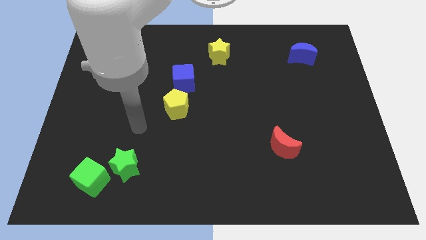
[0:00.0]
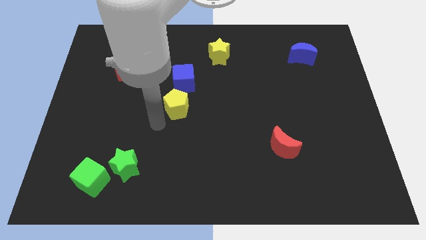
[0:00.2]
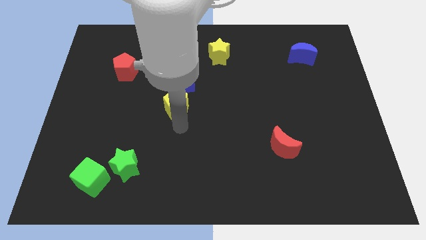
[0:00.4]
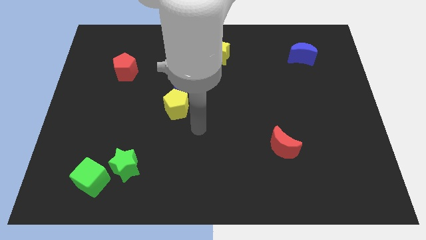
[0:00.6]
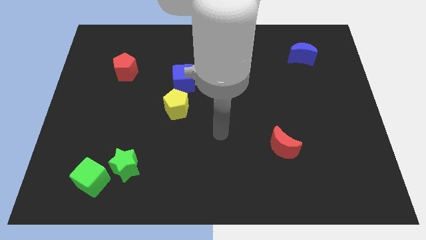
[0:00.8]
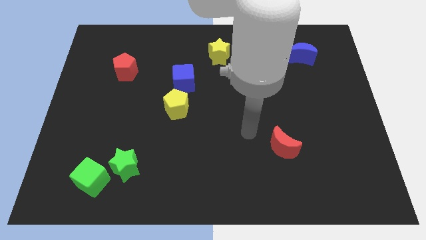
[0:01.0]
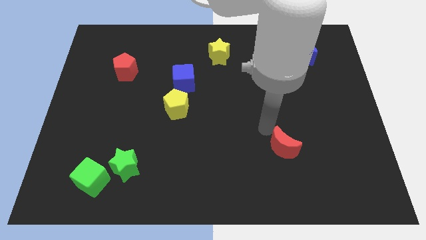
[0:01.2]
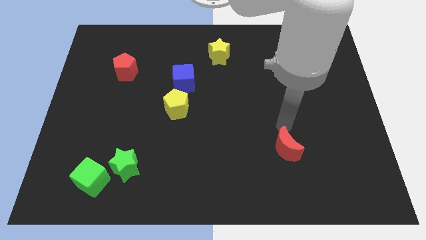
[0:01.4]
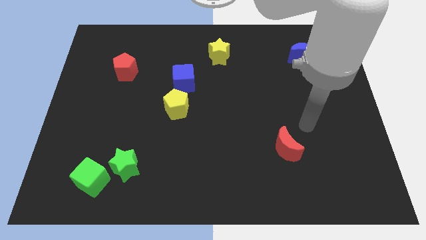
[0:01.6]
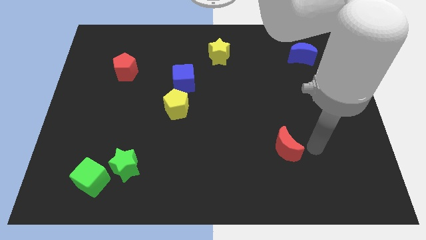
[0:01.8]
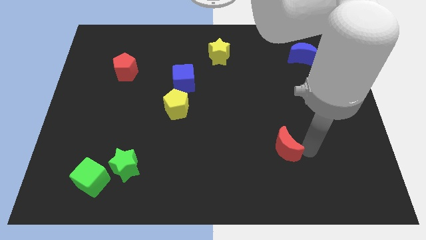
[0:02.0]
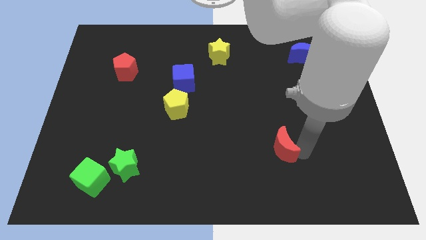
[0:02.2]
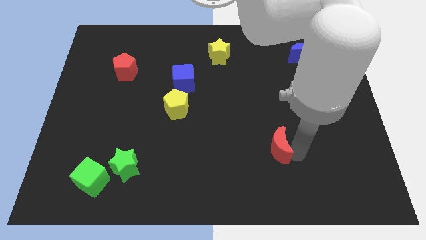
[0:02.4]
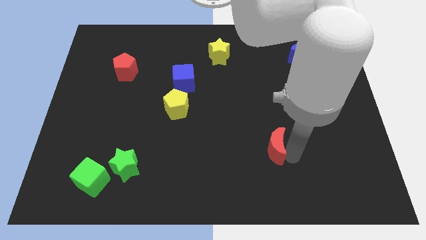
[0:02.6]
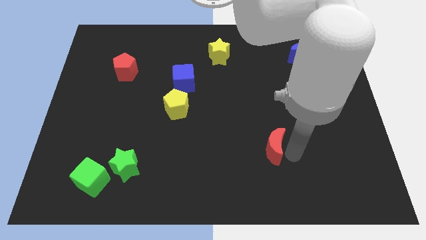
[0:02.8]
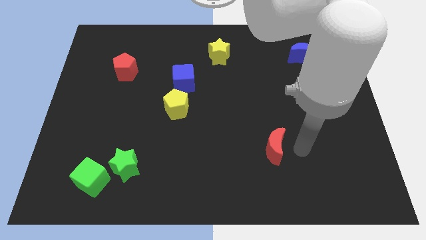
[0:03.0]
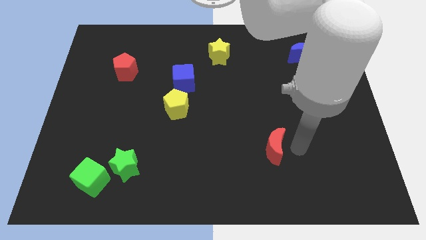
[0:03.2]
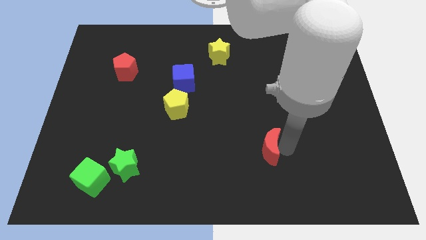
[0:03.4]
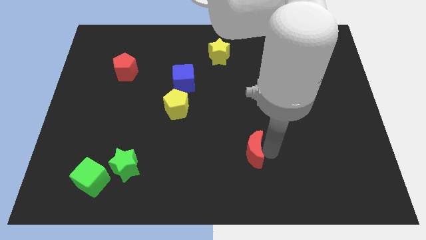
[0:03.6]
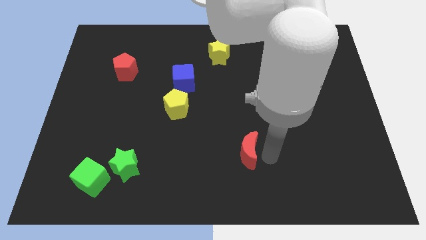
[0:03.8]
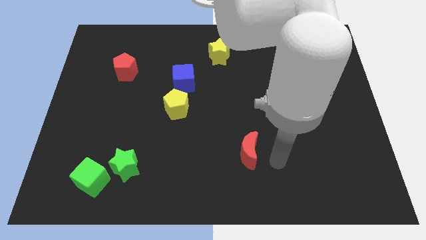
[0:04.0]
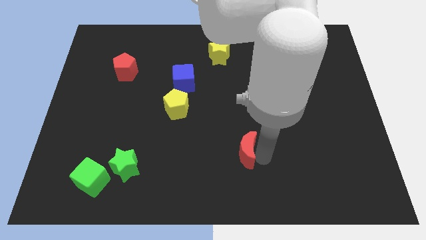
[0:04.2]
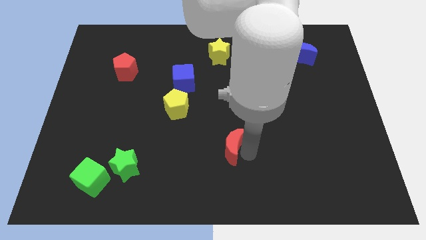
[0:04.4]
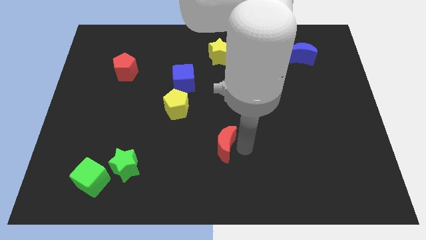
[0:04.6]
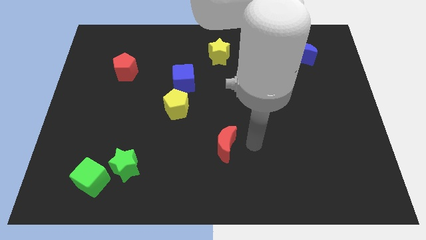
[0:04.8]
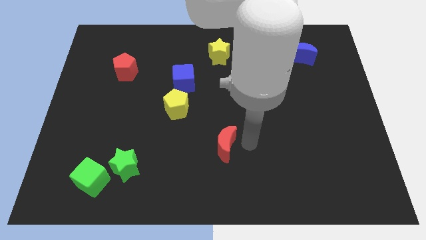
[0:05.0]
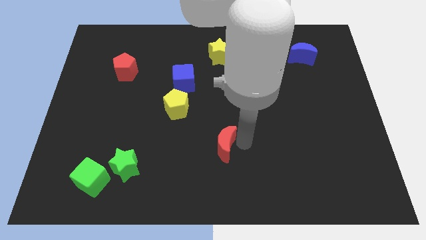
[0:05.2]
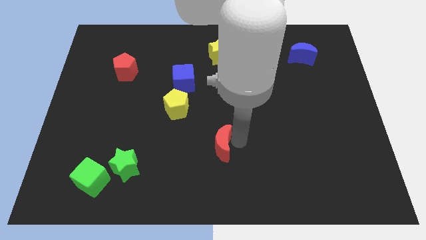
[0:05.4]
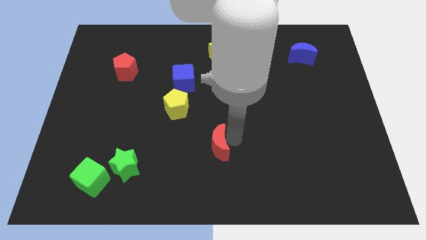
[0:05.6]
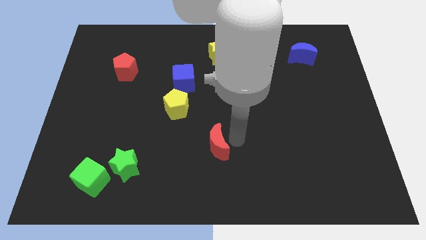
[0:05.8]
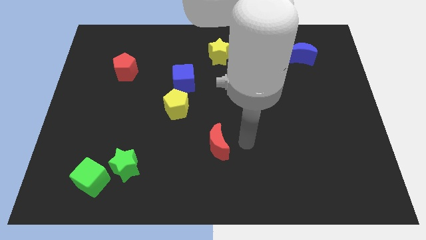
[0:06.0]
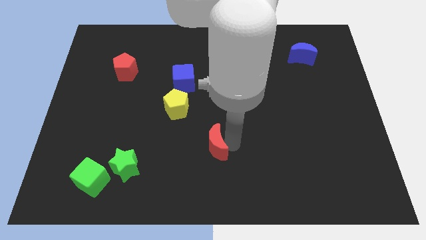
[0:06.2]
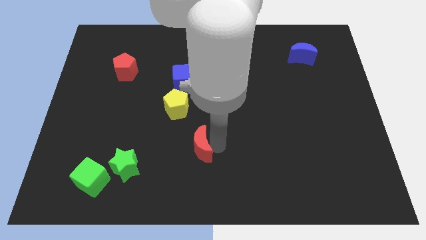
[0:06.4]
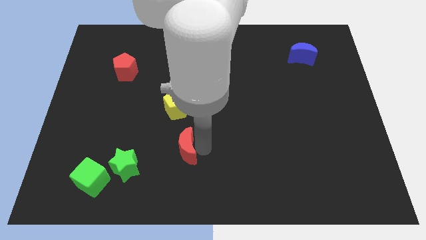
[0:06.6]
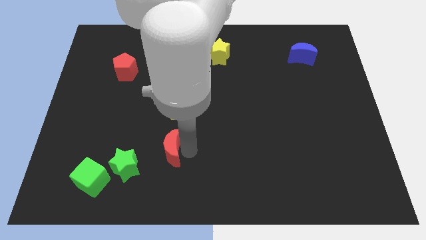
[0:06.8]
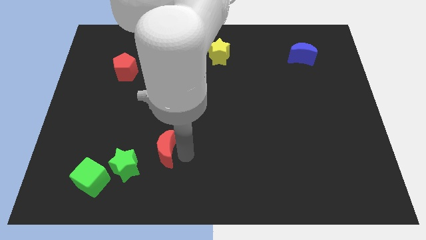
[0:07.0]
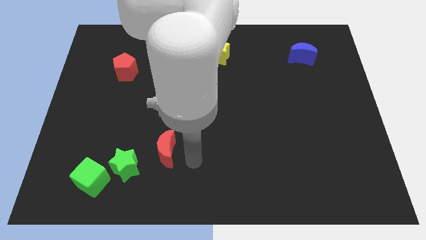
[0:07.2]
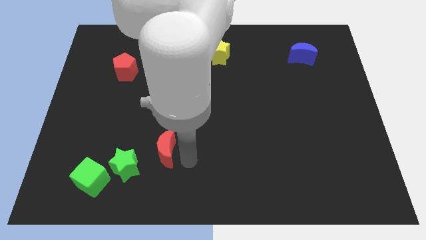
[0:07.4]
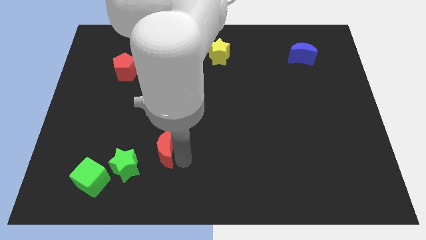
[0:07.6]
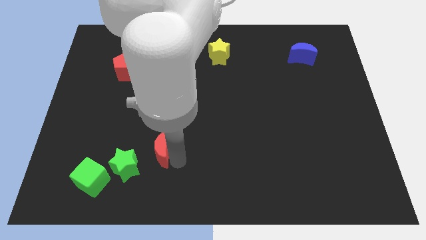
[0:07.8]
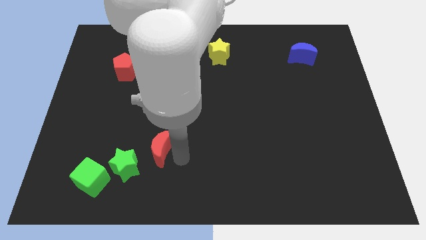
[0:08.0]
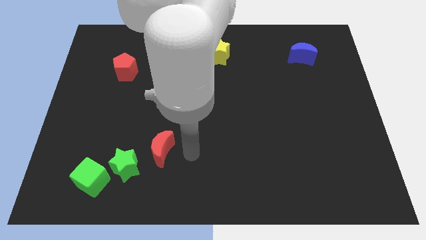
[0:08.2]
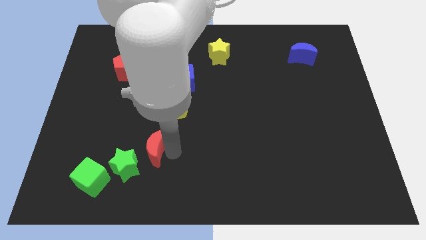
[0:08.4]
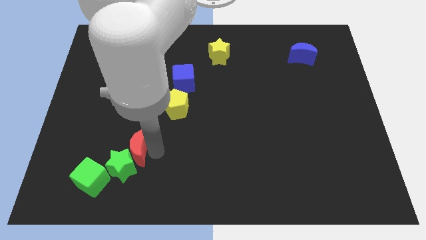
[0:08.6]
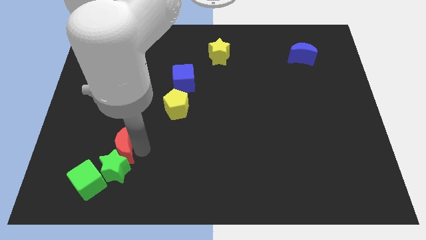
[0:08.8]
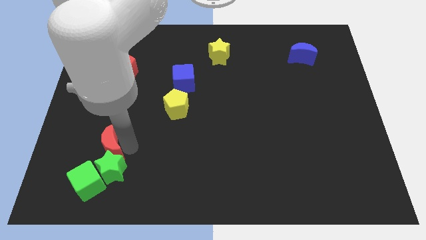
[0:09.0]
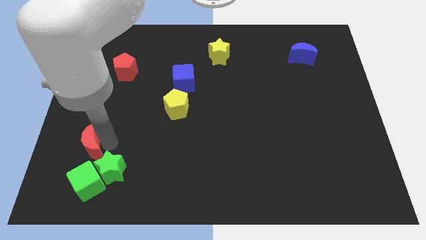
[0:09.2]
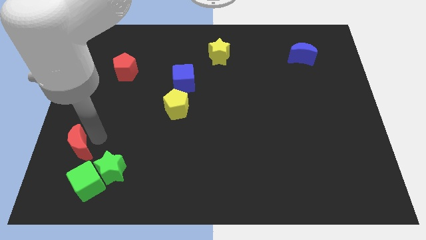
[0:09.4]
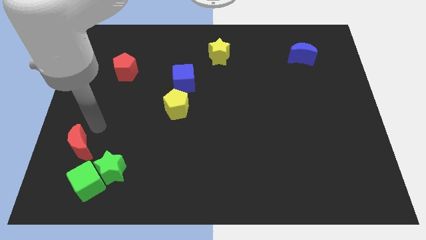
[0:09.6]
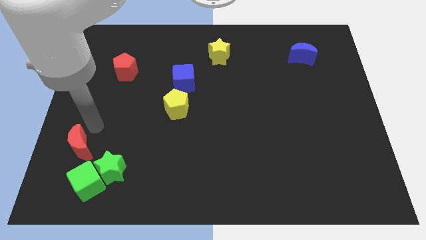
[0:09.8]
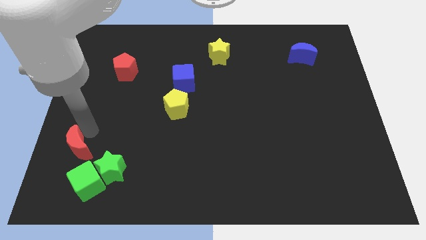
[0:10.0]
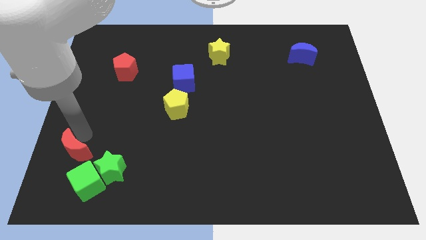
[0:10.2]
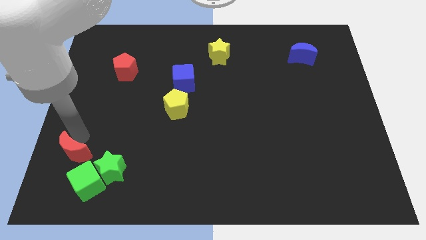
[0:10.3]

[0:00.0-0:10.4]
put the red moon left of the green star

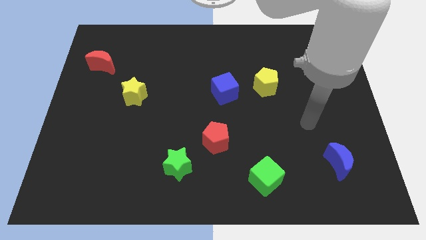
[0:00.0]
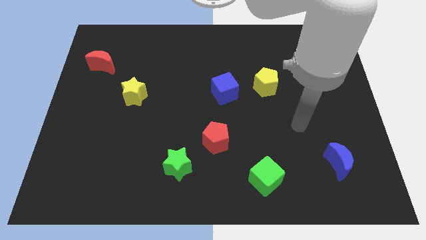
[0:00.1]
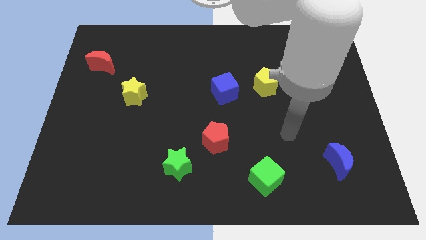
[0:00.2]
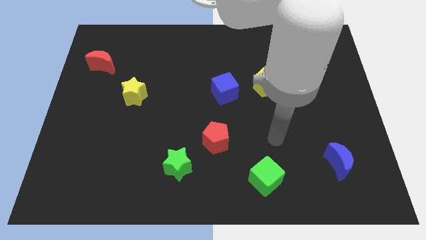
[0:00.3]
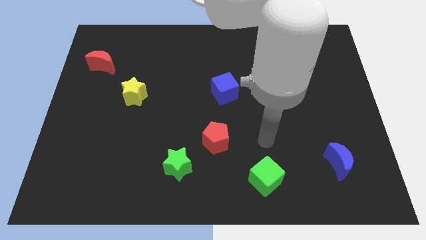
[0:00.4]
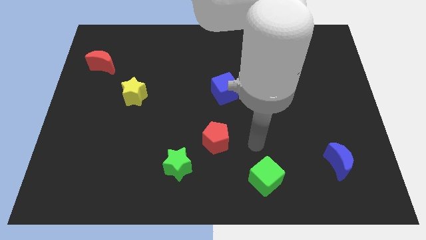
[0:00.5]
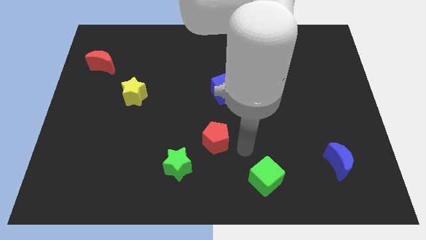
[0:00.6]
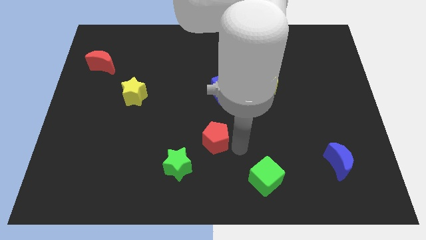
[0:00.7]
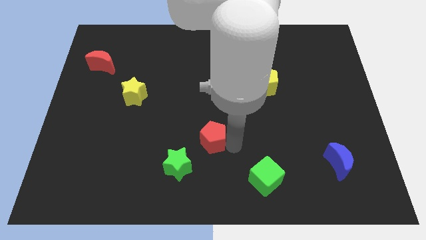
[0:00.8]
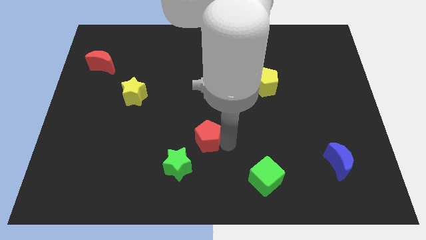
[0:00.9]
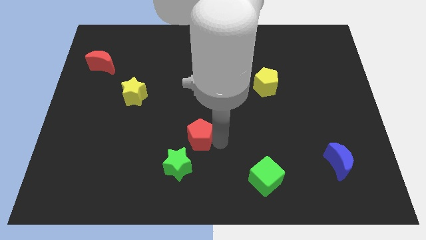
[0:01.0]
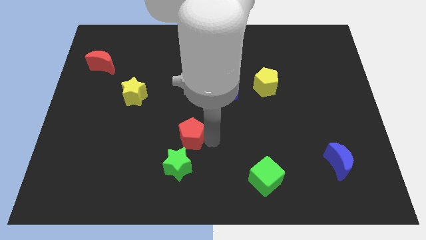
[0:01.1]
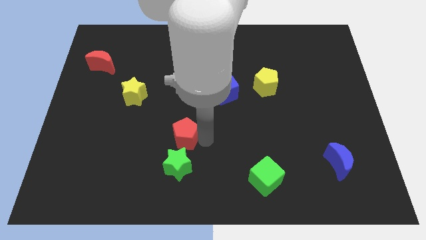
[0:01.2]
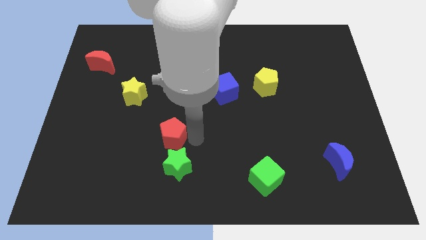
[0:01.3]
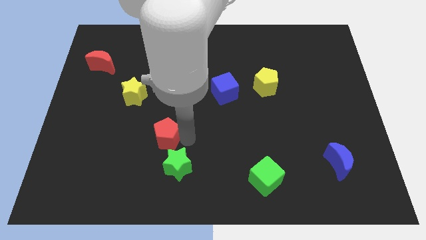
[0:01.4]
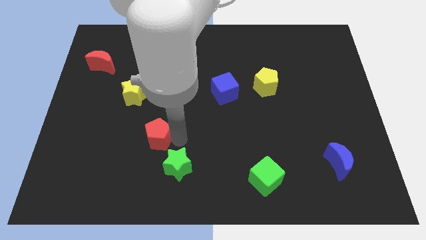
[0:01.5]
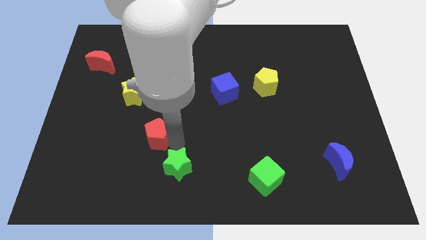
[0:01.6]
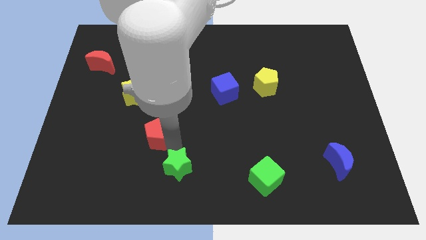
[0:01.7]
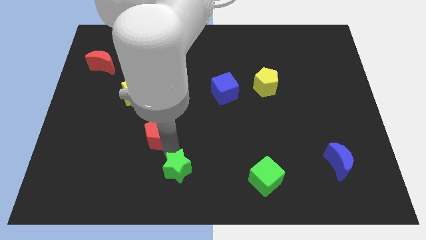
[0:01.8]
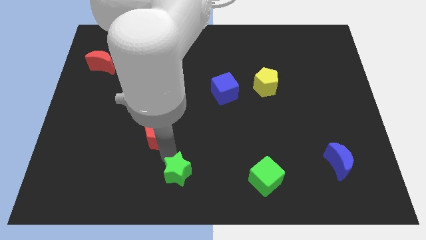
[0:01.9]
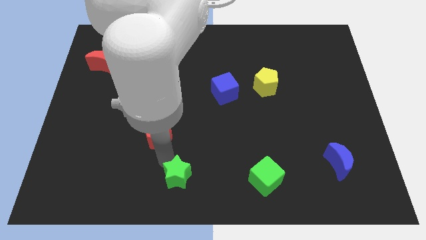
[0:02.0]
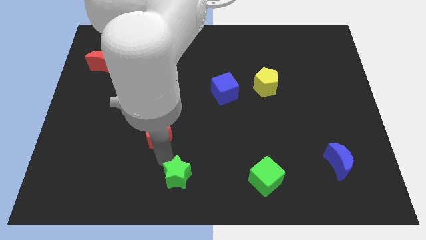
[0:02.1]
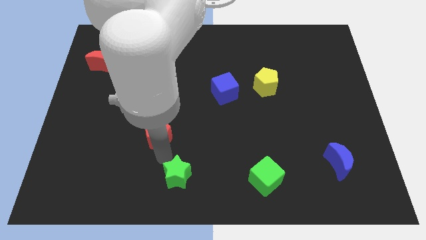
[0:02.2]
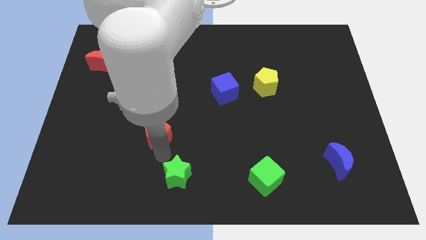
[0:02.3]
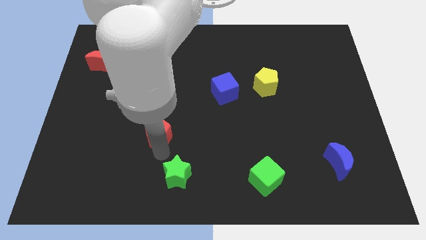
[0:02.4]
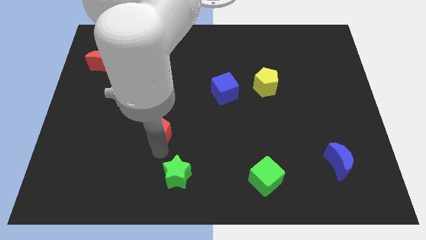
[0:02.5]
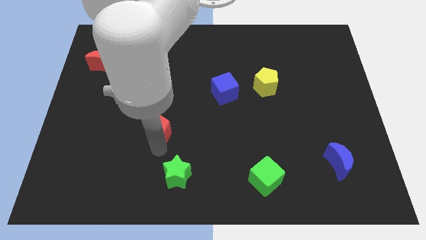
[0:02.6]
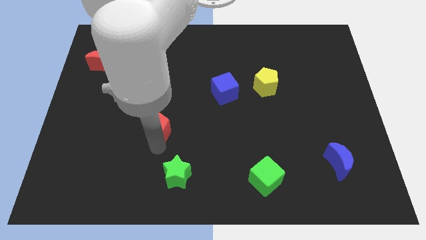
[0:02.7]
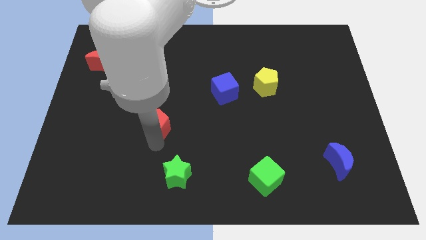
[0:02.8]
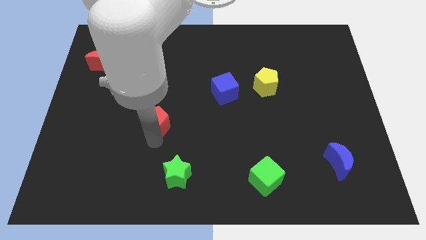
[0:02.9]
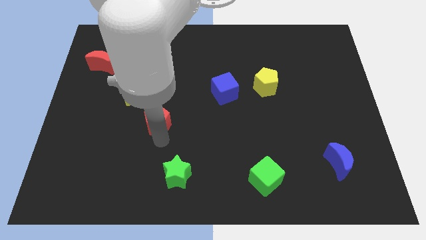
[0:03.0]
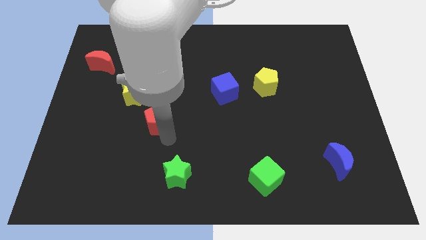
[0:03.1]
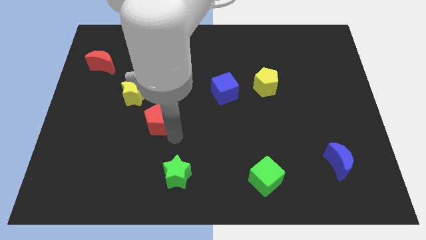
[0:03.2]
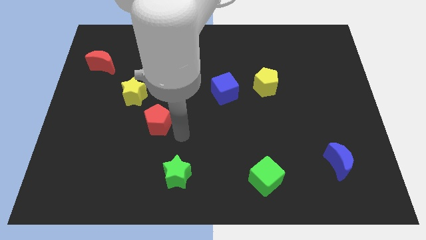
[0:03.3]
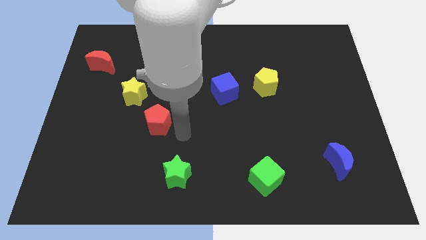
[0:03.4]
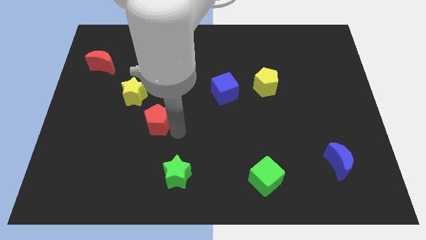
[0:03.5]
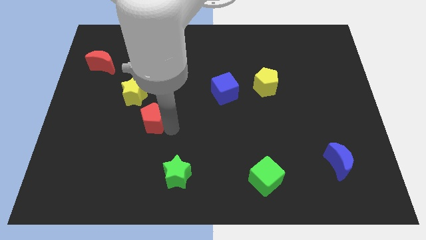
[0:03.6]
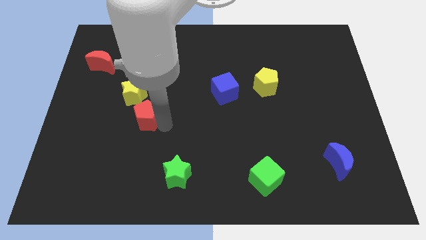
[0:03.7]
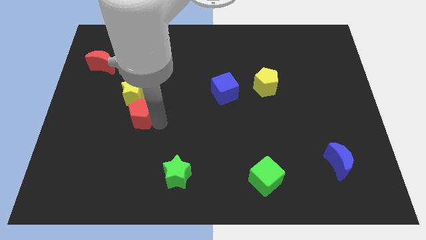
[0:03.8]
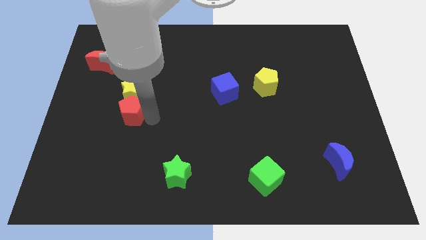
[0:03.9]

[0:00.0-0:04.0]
slide the red pentagon to the bottom left of the yellow star
